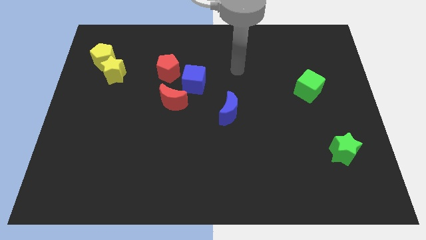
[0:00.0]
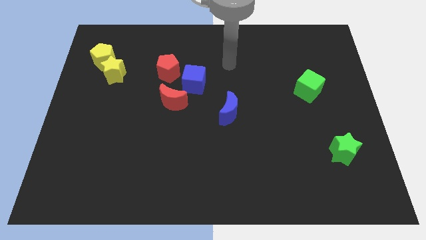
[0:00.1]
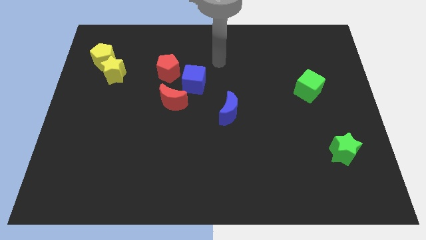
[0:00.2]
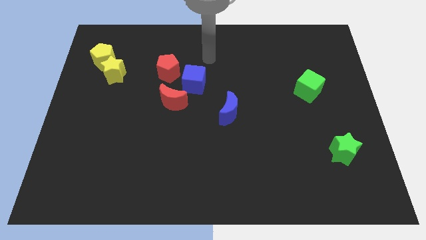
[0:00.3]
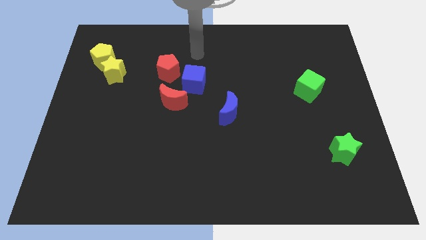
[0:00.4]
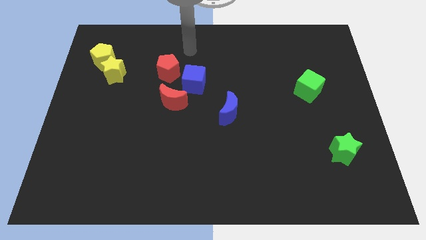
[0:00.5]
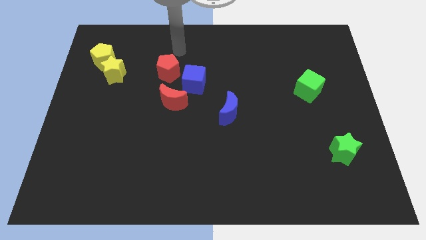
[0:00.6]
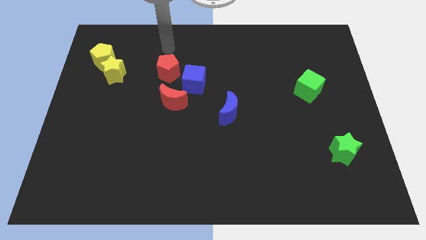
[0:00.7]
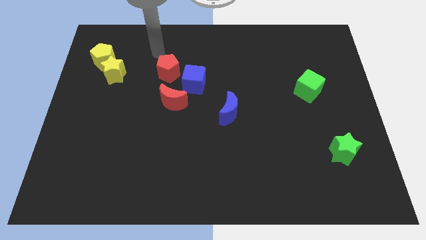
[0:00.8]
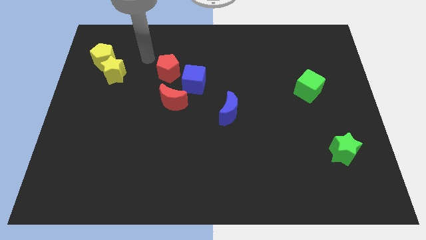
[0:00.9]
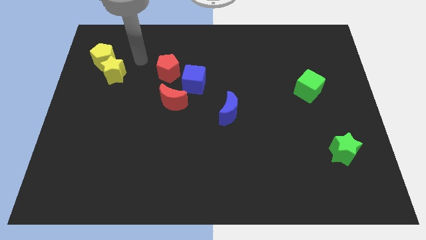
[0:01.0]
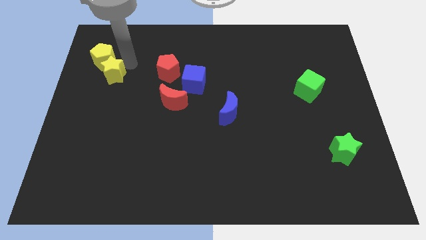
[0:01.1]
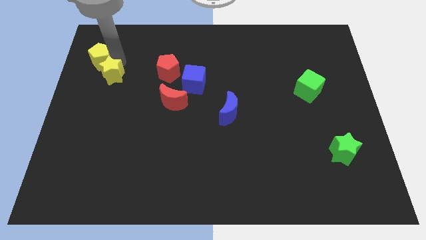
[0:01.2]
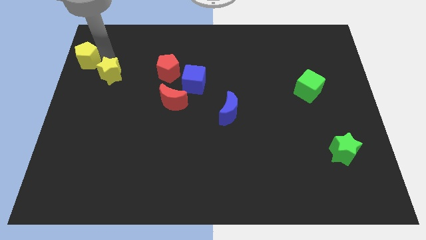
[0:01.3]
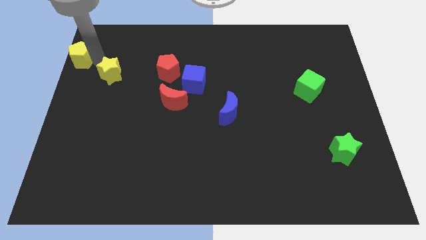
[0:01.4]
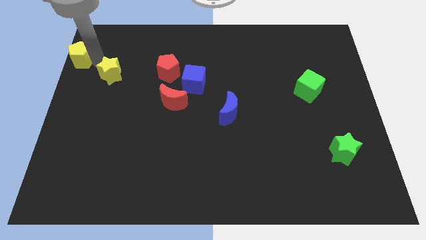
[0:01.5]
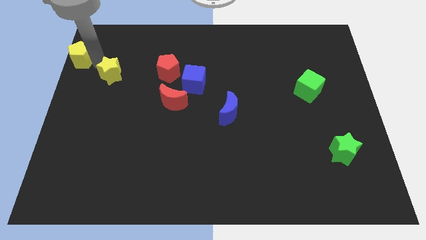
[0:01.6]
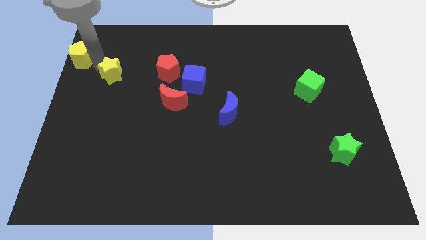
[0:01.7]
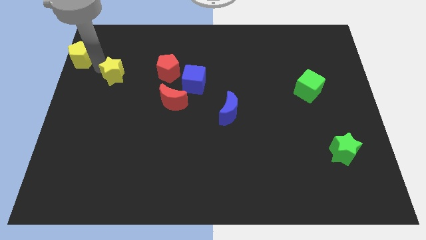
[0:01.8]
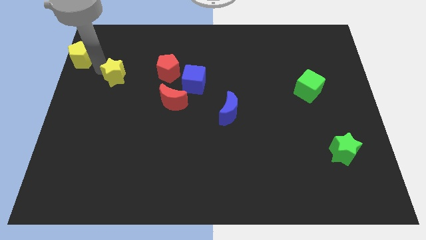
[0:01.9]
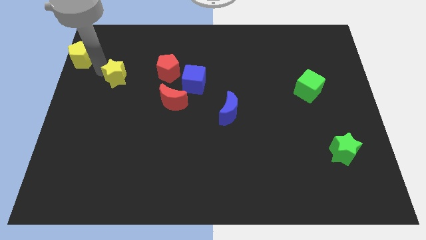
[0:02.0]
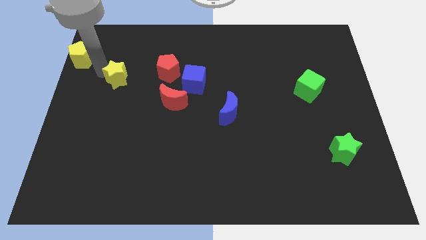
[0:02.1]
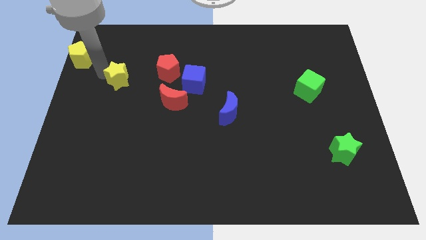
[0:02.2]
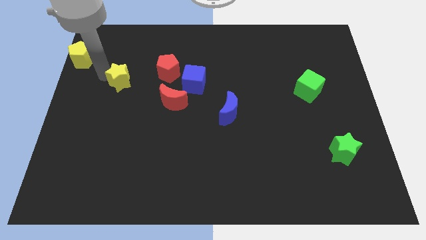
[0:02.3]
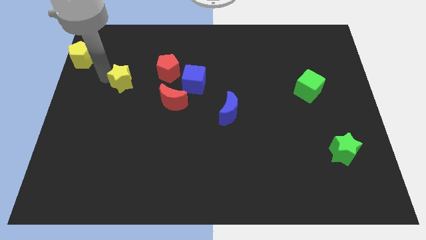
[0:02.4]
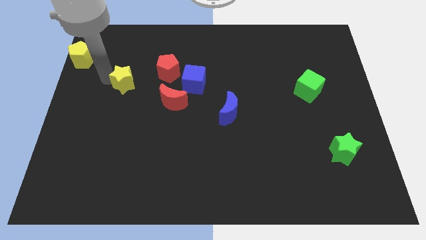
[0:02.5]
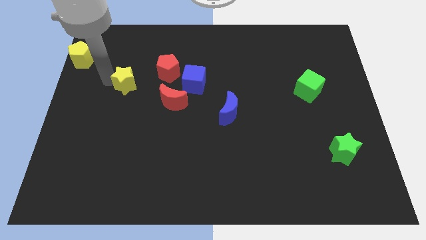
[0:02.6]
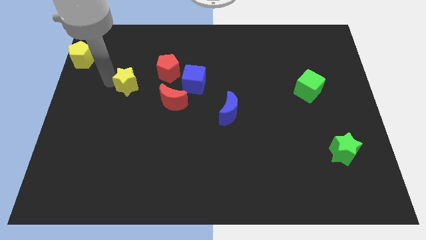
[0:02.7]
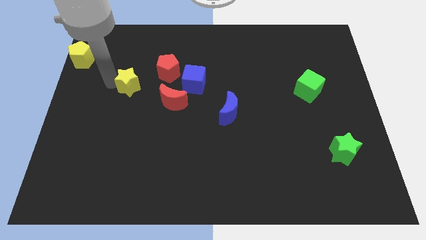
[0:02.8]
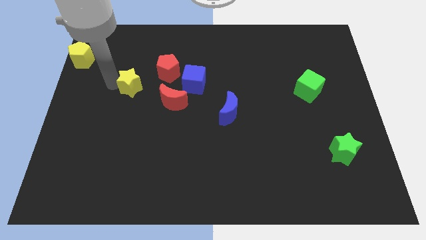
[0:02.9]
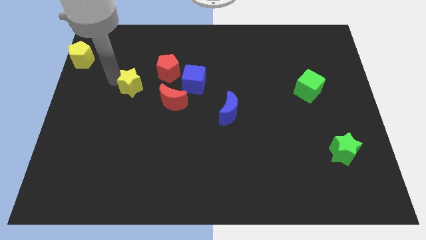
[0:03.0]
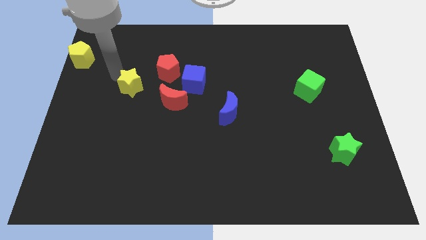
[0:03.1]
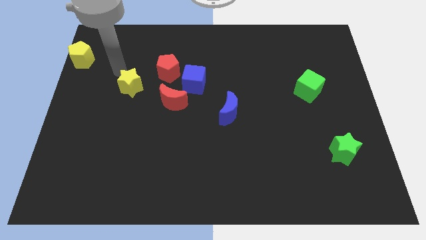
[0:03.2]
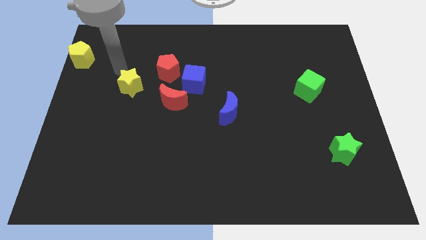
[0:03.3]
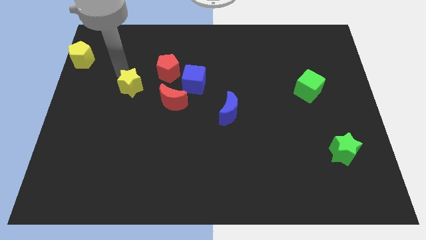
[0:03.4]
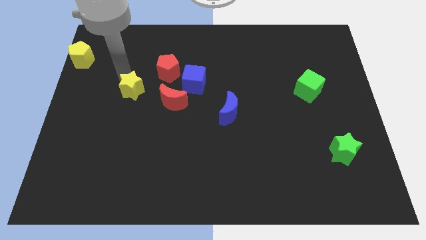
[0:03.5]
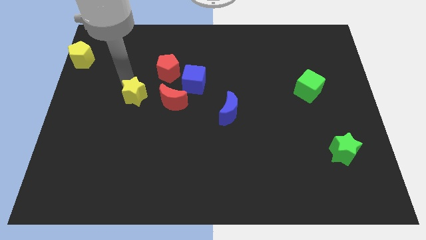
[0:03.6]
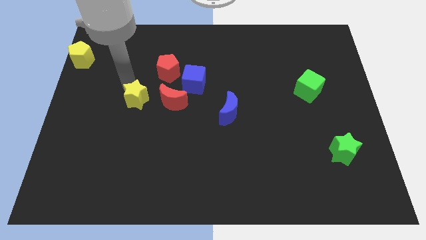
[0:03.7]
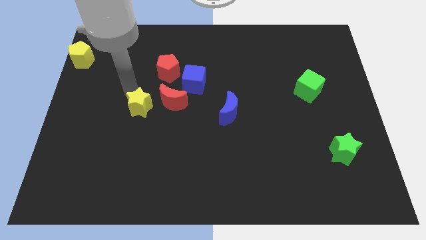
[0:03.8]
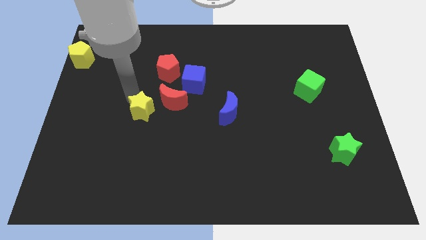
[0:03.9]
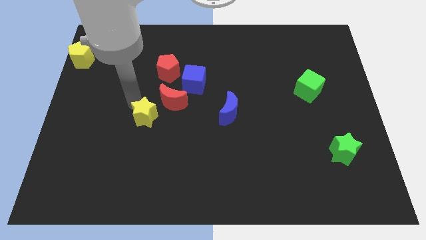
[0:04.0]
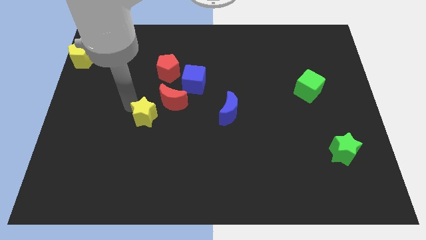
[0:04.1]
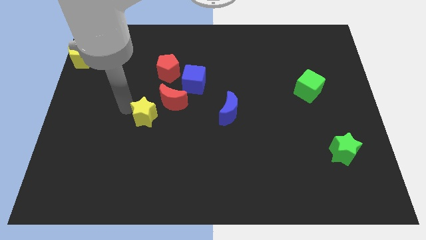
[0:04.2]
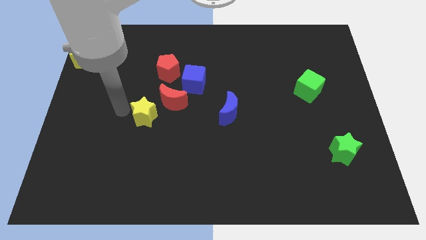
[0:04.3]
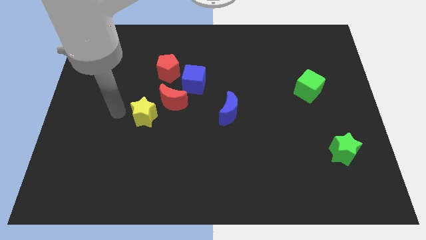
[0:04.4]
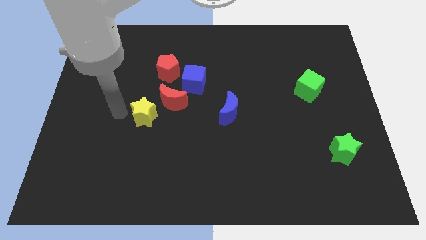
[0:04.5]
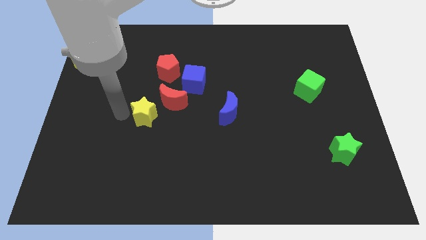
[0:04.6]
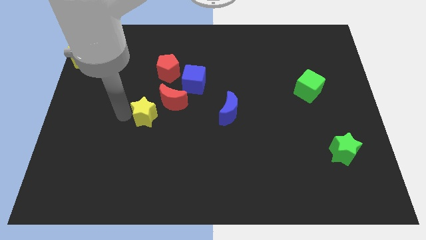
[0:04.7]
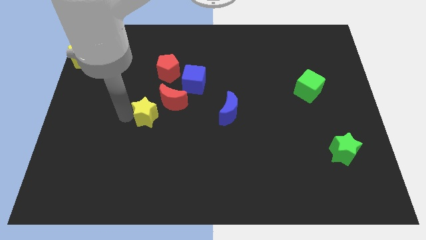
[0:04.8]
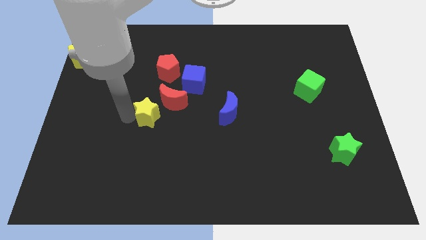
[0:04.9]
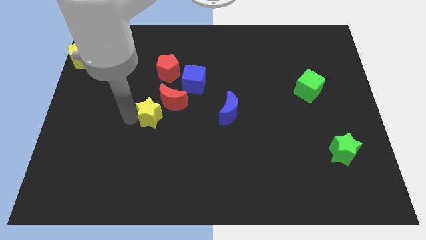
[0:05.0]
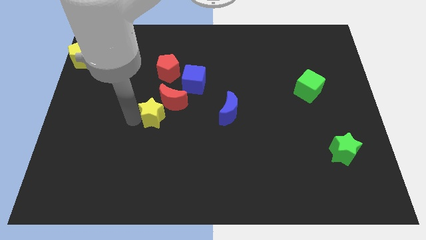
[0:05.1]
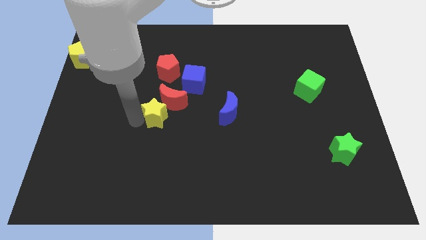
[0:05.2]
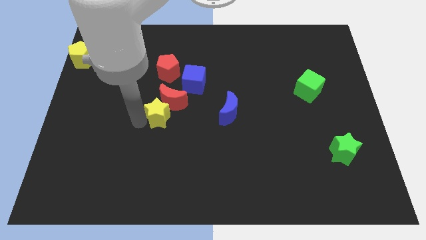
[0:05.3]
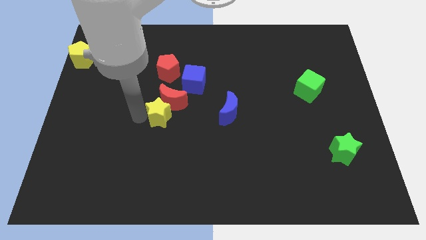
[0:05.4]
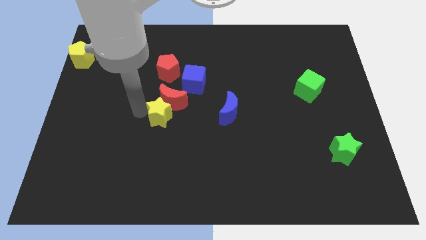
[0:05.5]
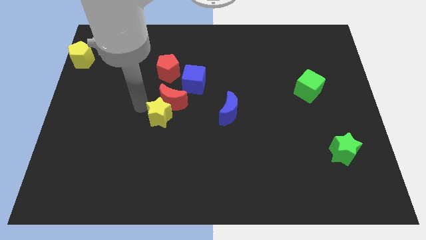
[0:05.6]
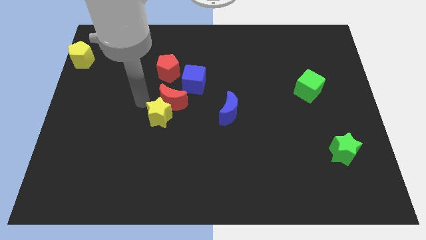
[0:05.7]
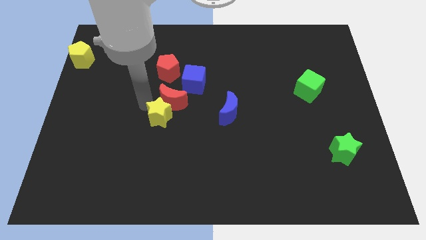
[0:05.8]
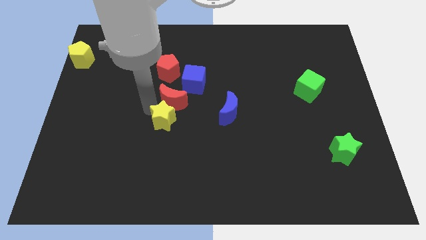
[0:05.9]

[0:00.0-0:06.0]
slide the yellow star down and right

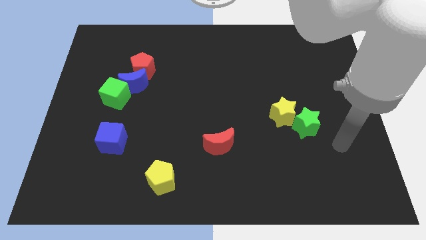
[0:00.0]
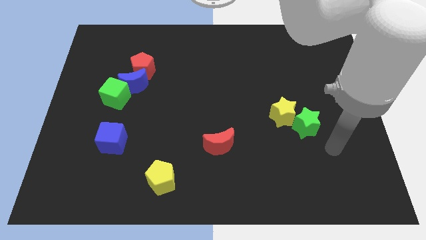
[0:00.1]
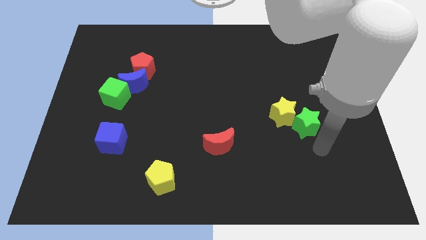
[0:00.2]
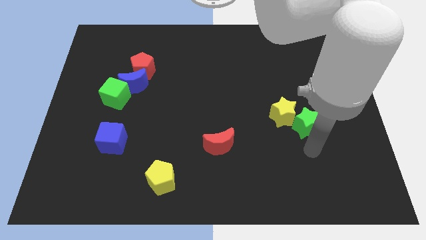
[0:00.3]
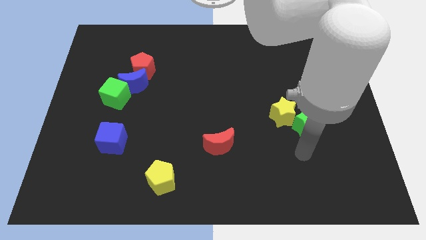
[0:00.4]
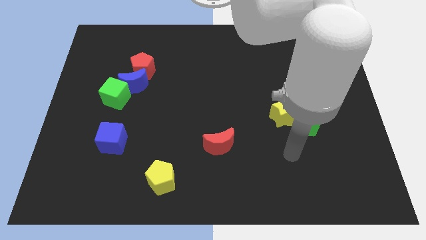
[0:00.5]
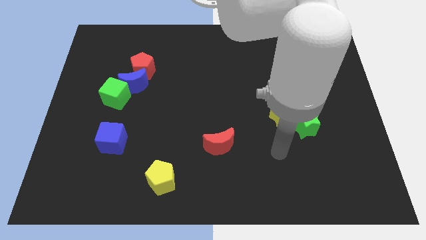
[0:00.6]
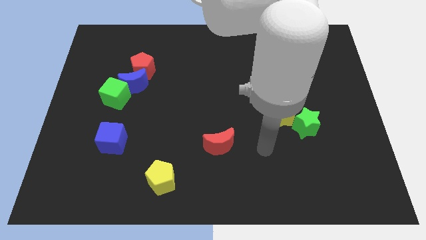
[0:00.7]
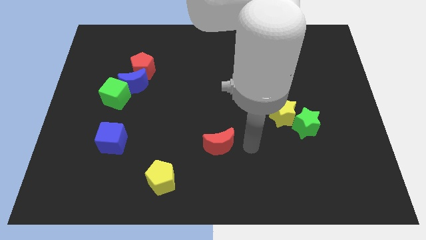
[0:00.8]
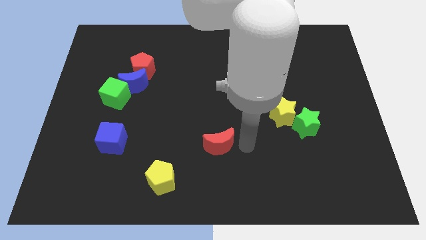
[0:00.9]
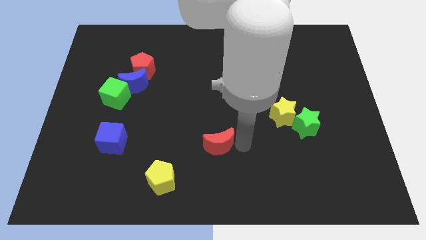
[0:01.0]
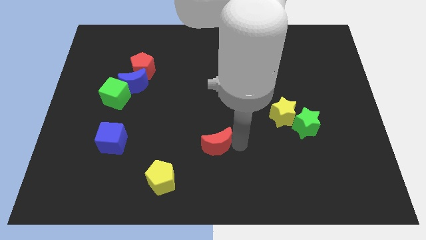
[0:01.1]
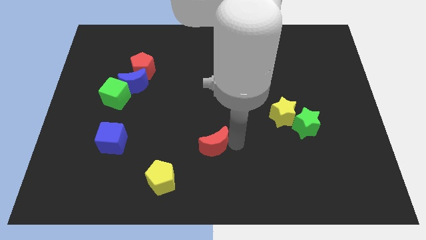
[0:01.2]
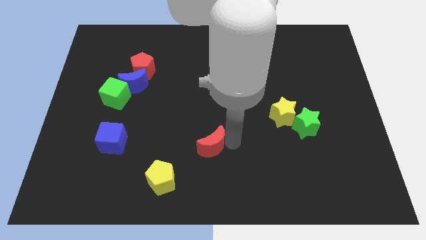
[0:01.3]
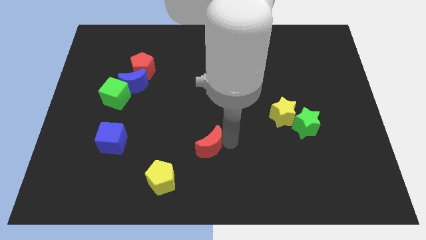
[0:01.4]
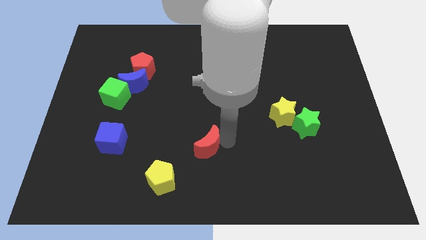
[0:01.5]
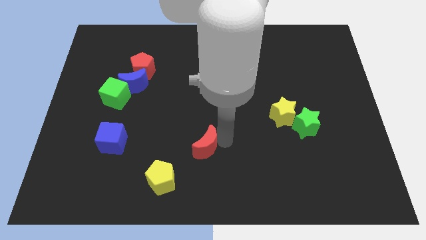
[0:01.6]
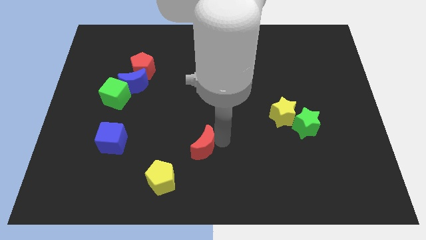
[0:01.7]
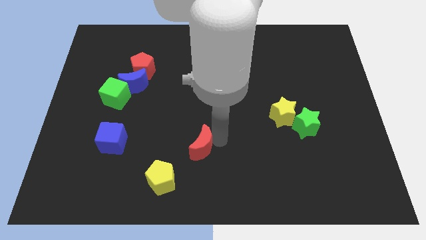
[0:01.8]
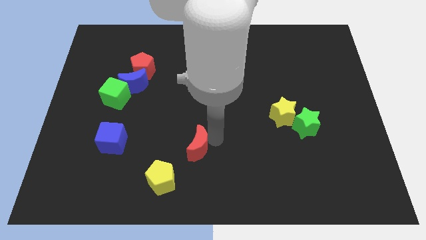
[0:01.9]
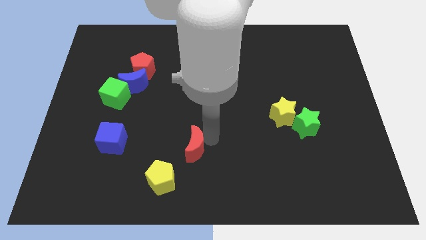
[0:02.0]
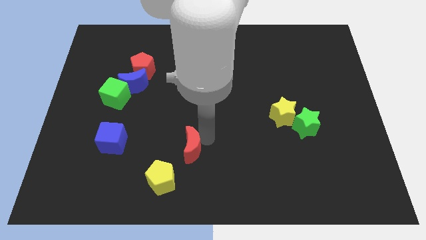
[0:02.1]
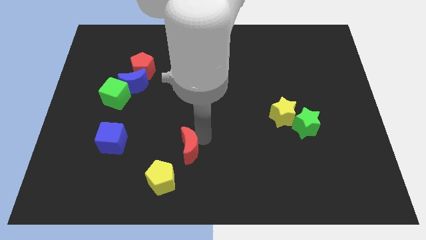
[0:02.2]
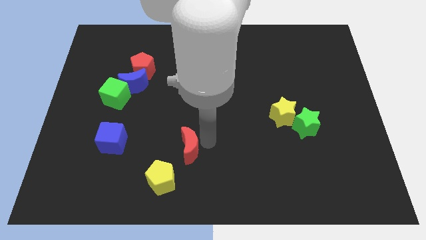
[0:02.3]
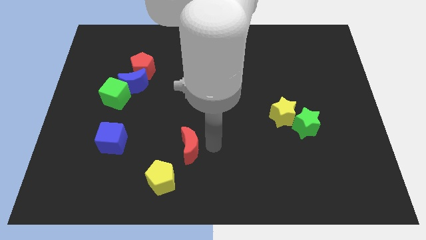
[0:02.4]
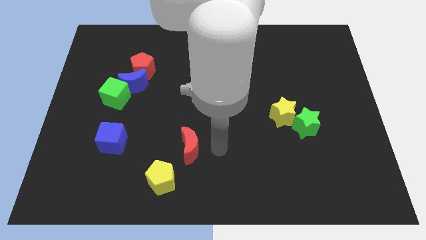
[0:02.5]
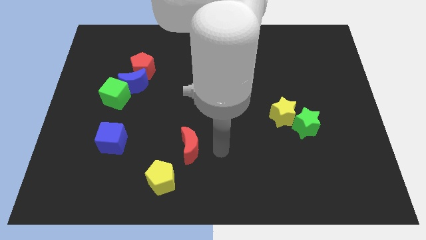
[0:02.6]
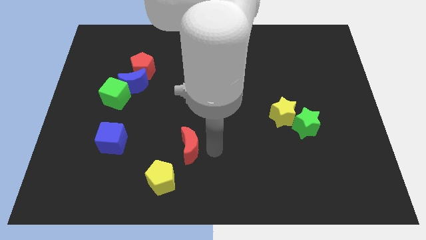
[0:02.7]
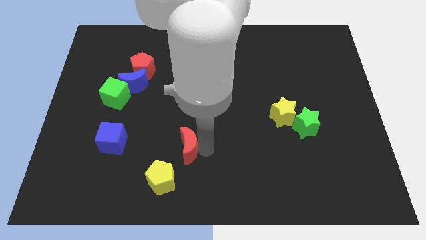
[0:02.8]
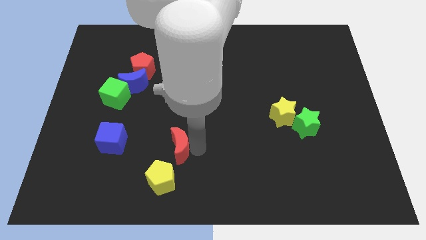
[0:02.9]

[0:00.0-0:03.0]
push the red moon a bit to the left
